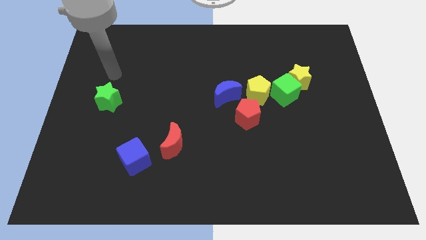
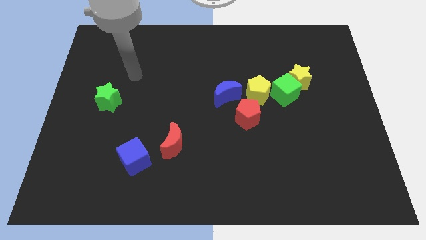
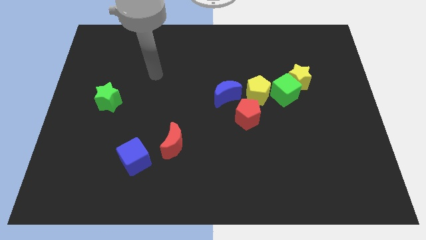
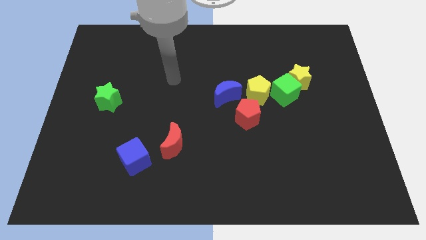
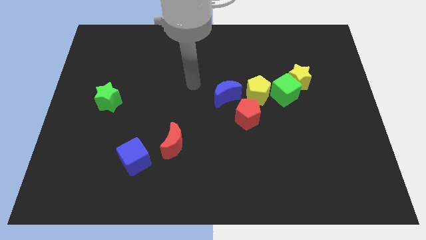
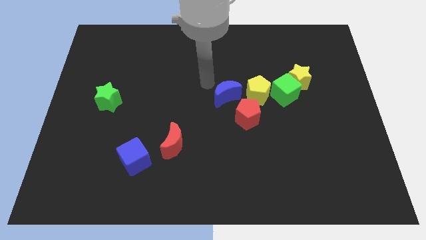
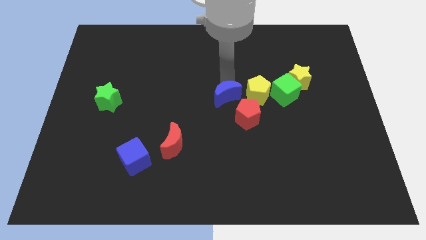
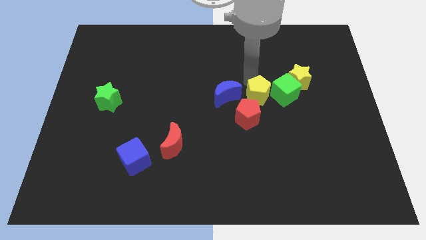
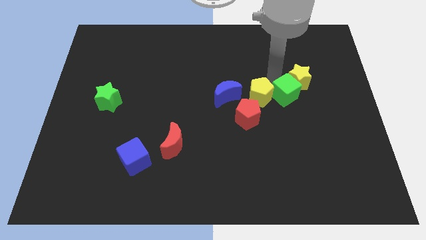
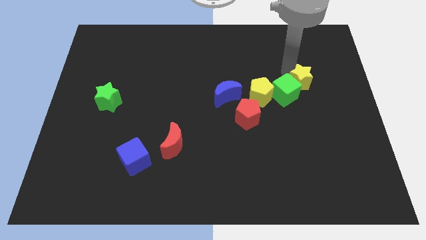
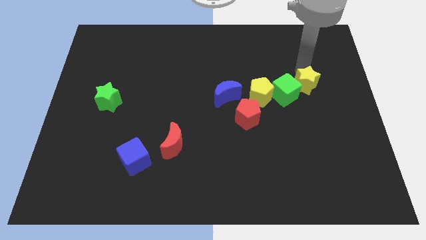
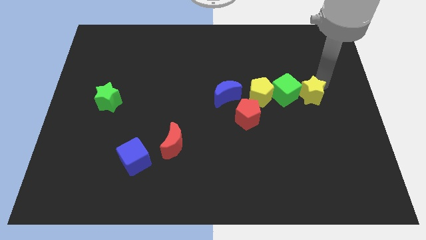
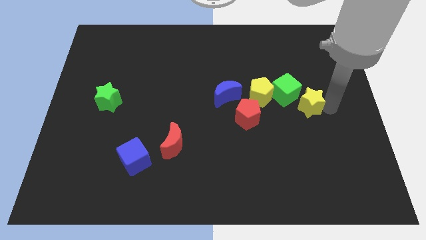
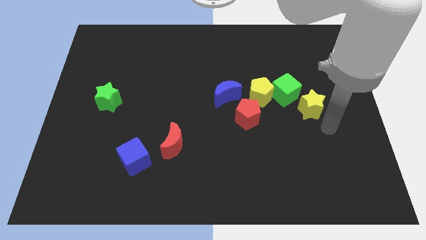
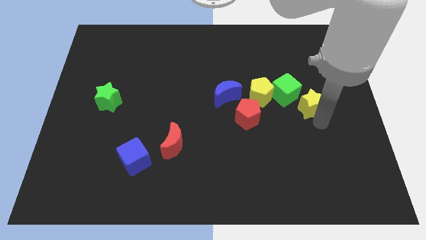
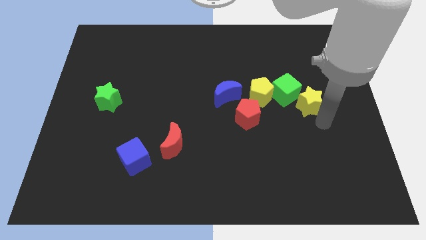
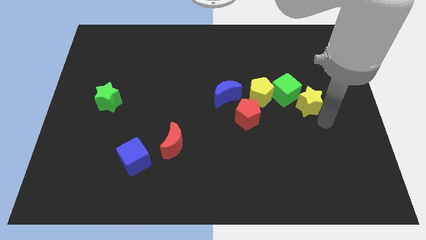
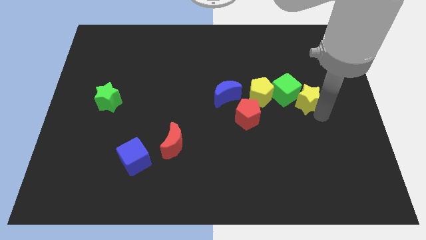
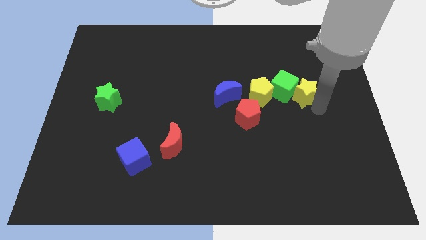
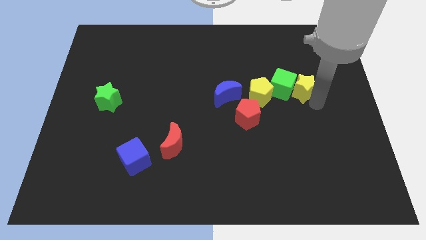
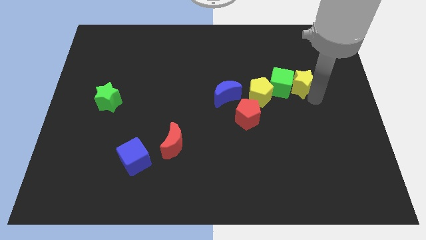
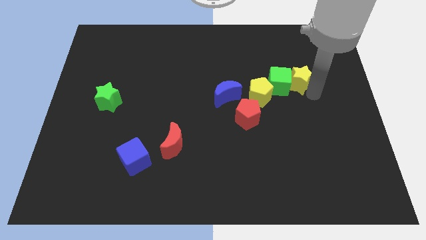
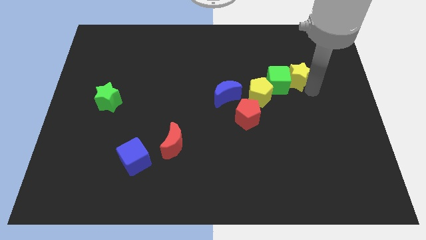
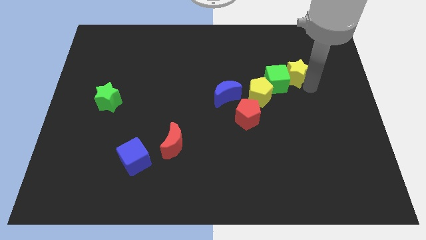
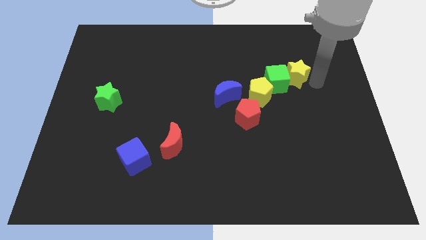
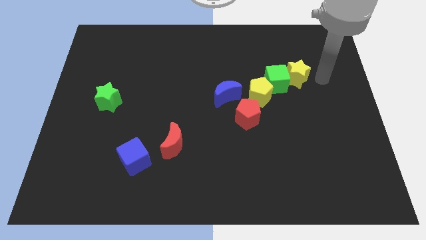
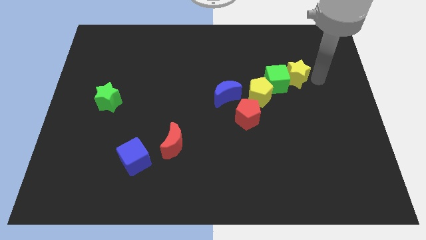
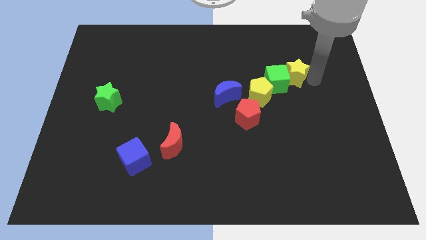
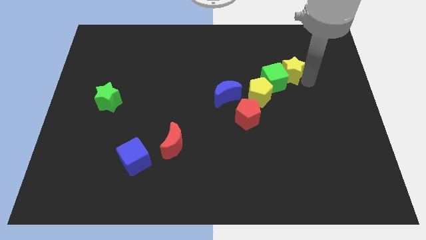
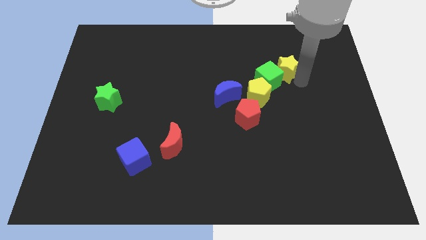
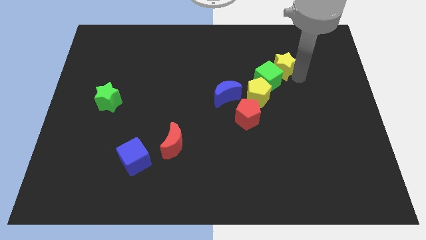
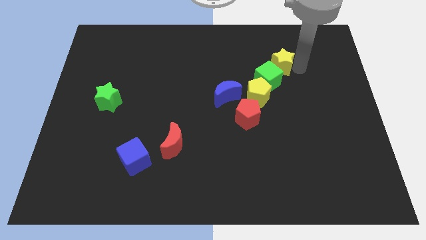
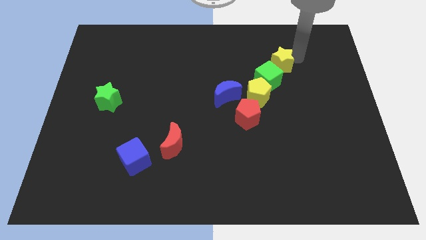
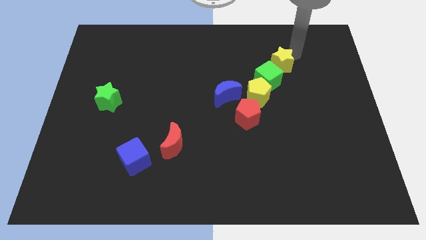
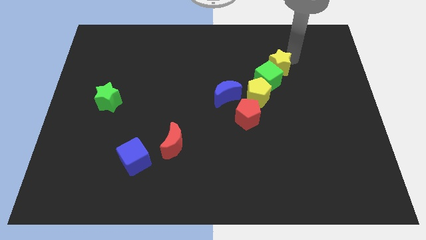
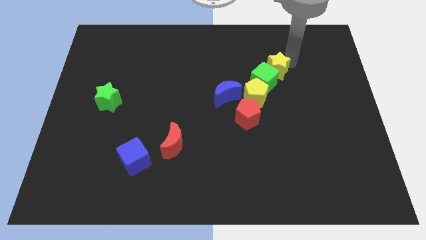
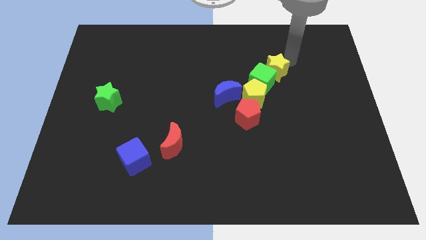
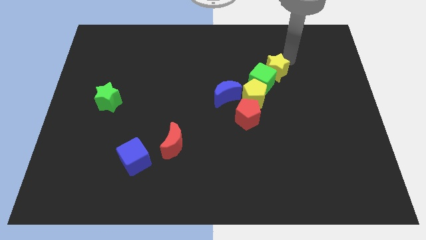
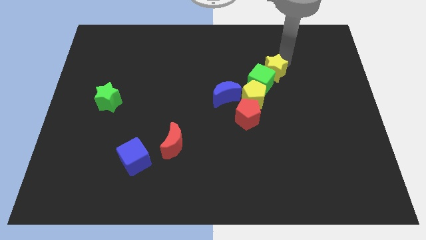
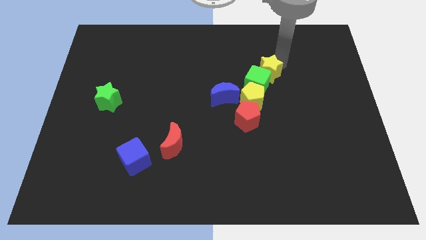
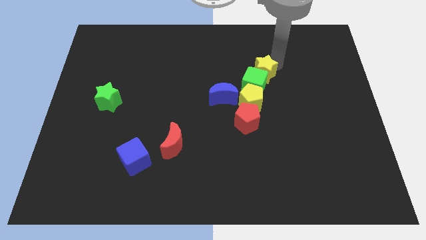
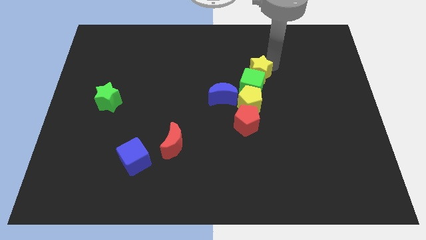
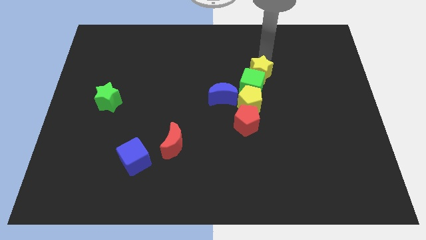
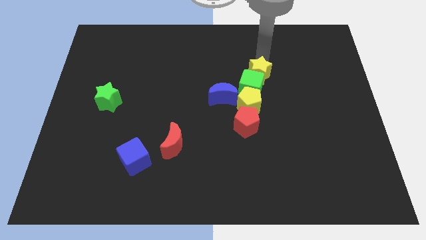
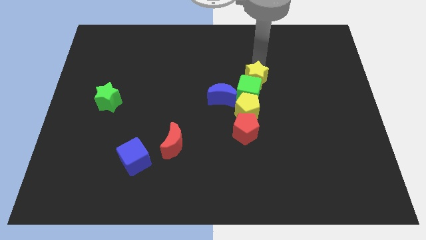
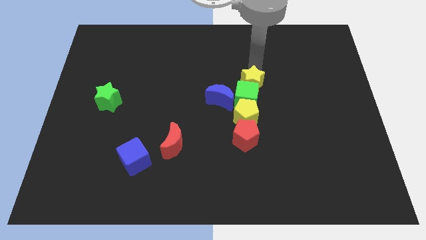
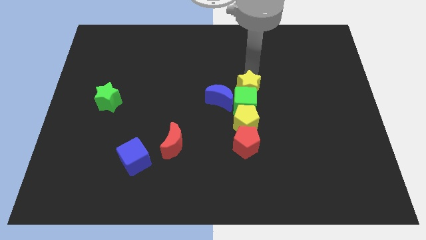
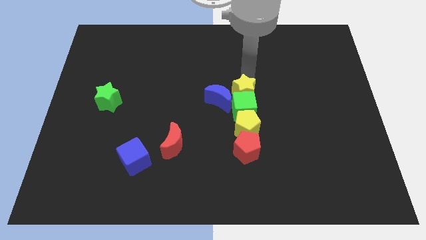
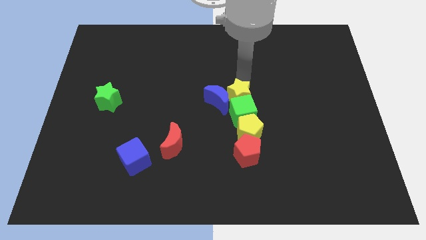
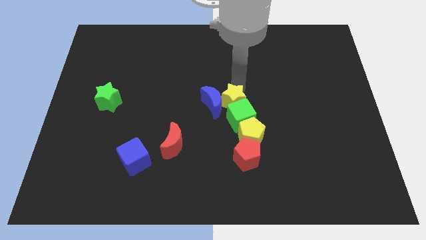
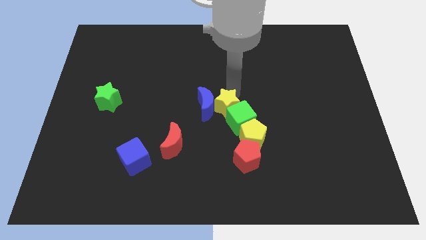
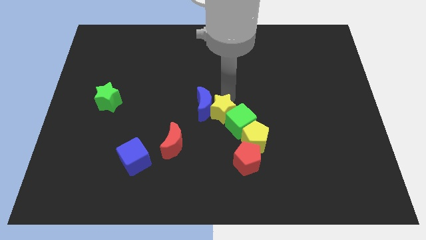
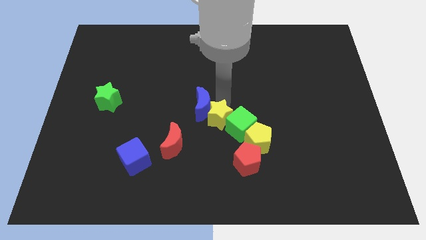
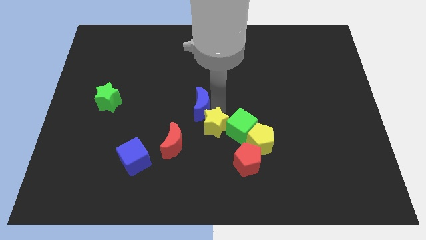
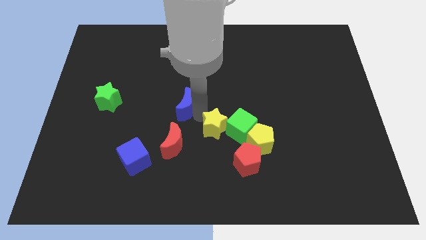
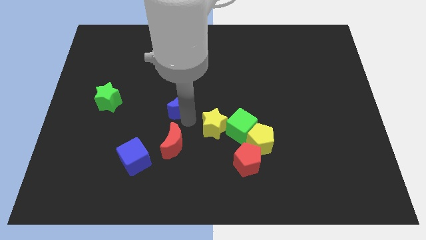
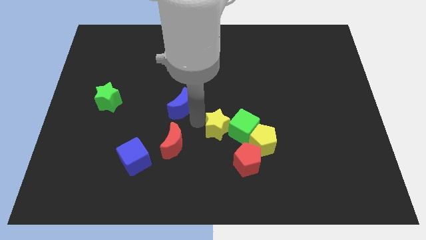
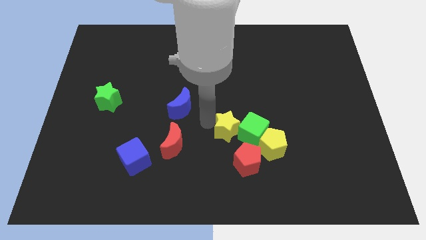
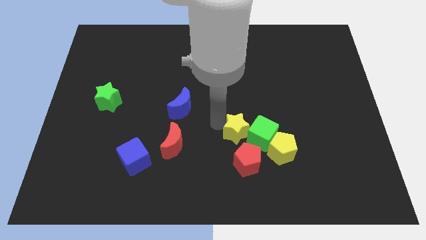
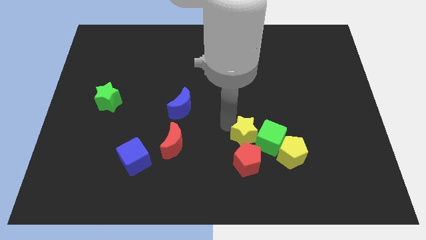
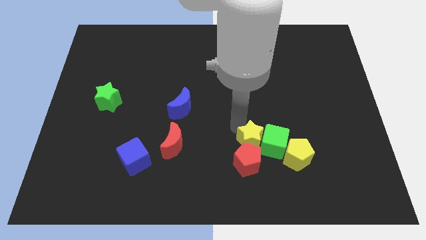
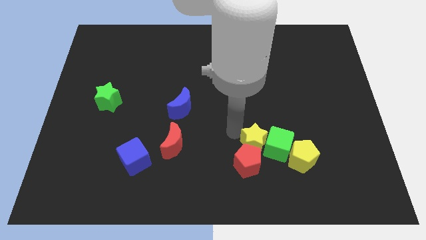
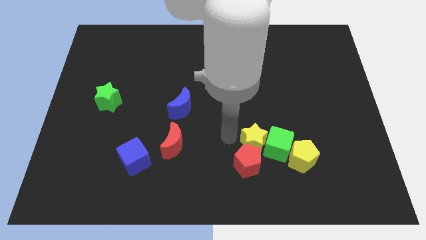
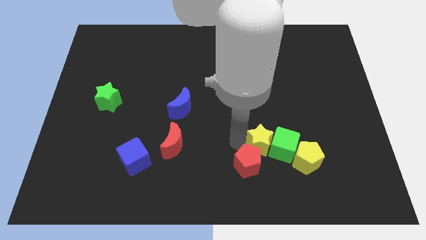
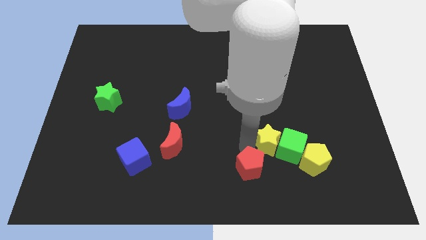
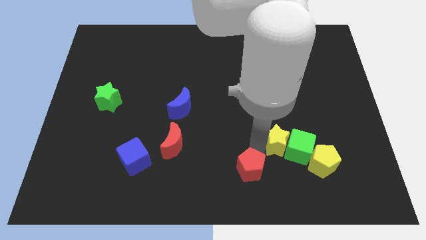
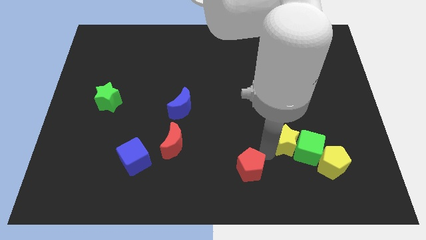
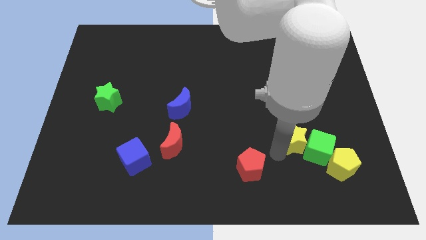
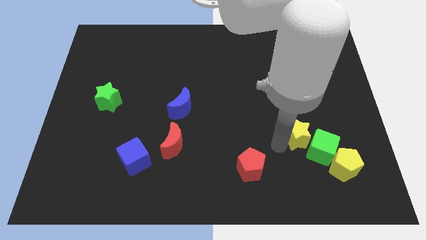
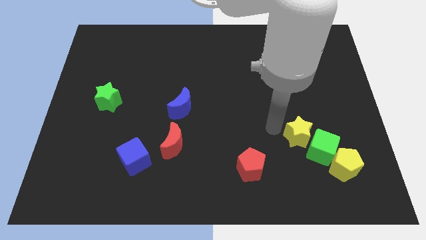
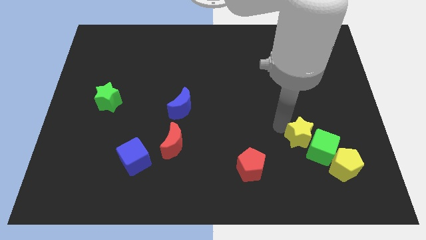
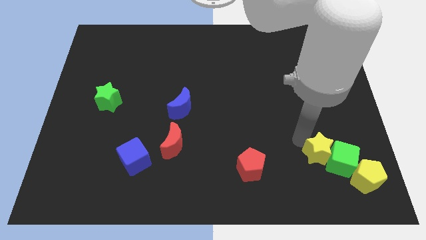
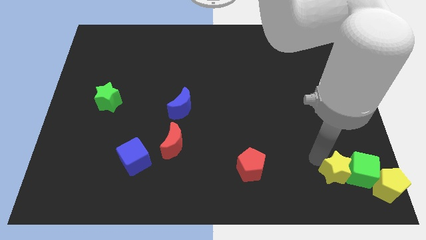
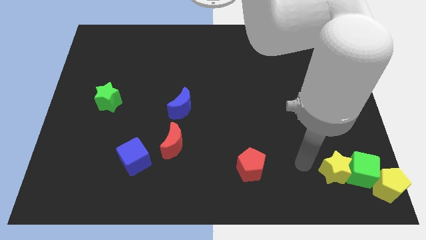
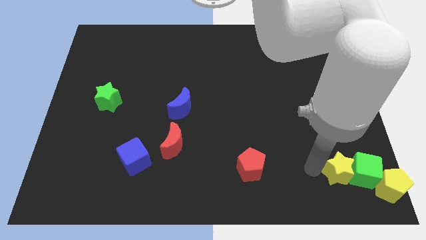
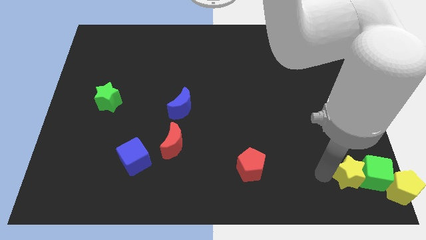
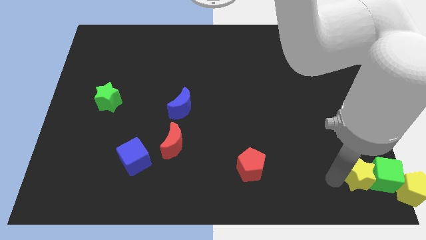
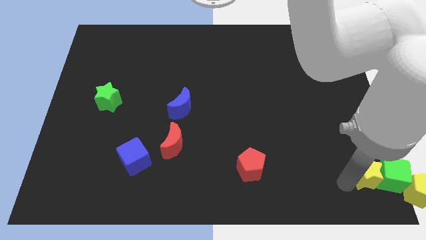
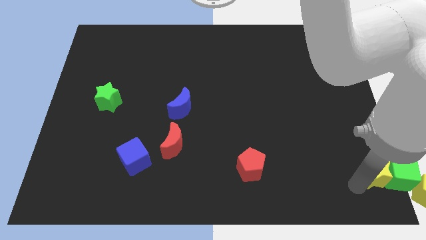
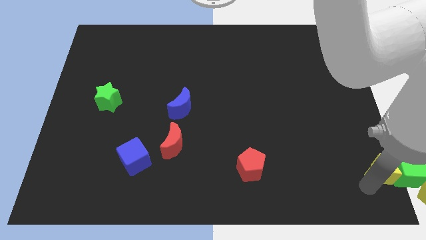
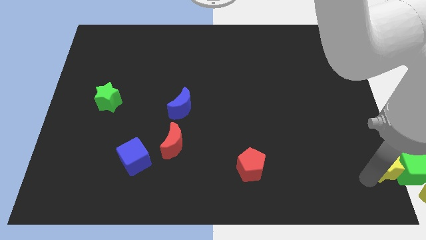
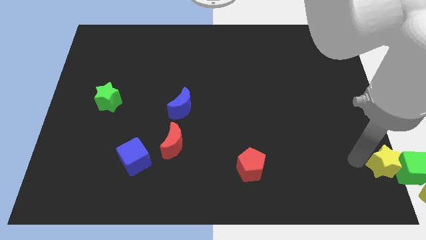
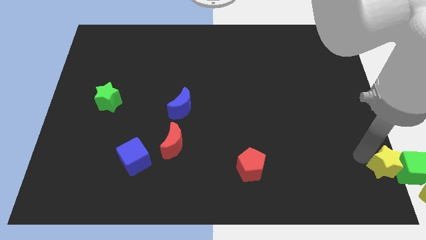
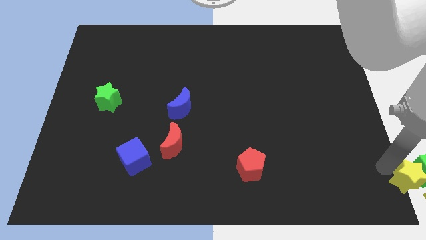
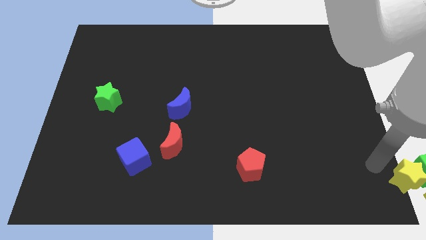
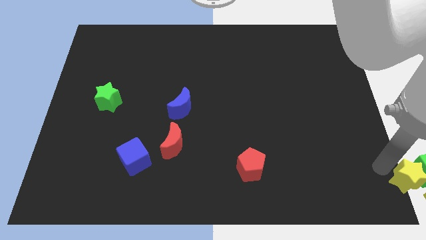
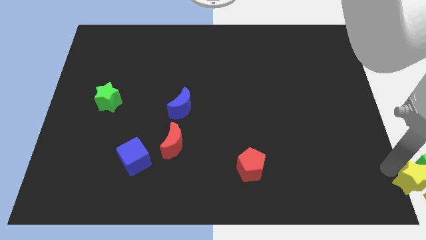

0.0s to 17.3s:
move the yellow star next to the yellow pentagon
